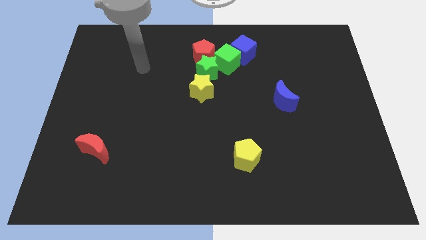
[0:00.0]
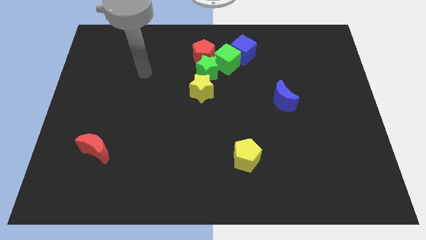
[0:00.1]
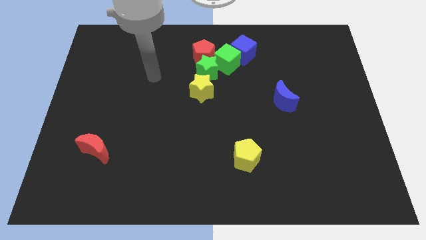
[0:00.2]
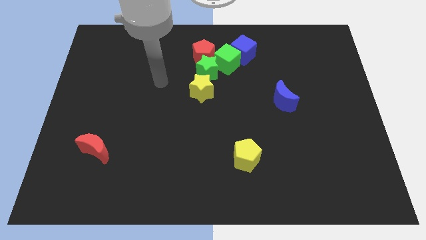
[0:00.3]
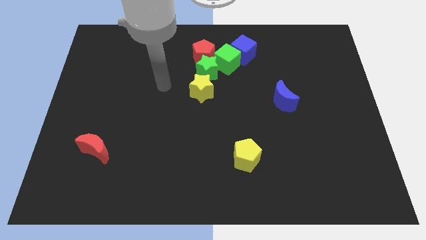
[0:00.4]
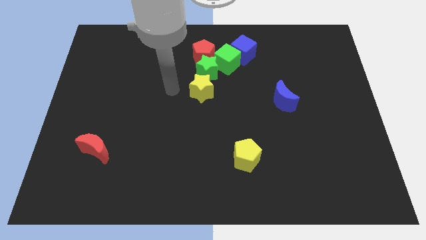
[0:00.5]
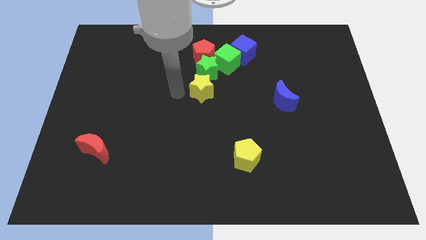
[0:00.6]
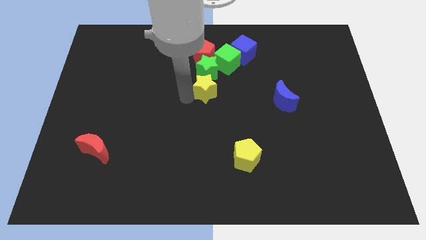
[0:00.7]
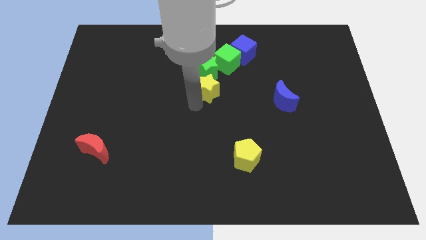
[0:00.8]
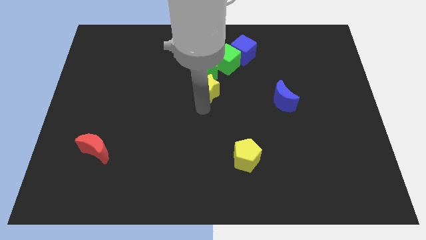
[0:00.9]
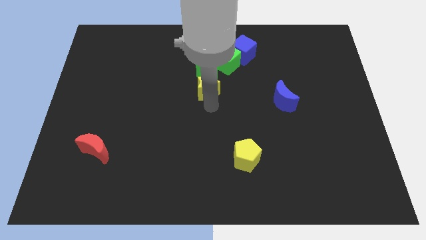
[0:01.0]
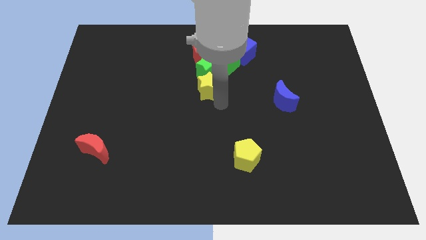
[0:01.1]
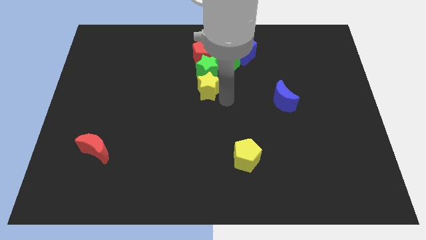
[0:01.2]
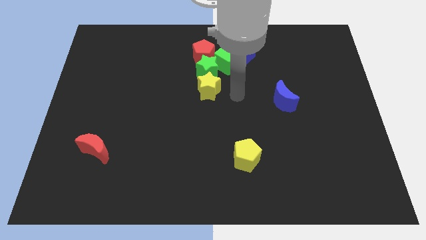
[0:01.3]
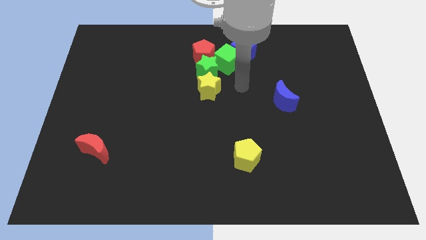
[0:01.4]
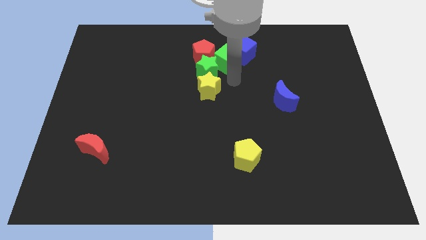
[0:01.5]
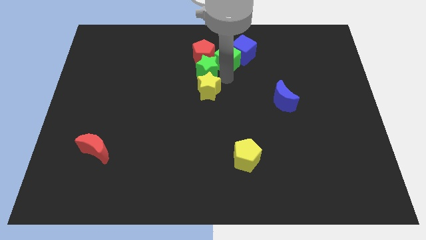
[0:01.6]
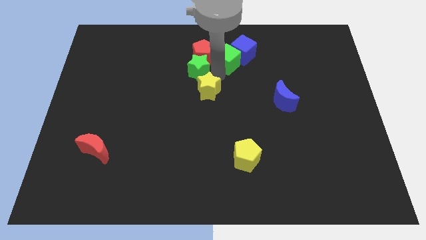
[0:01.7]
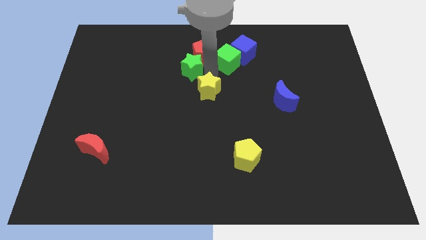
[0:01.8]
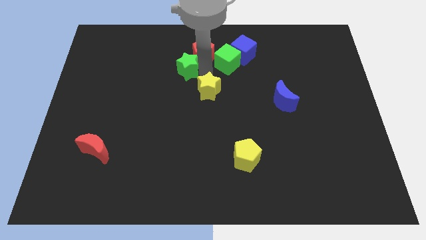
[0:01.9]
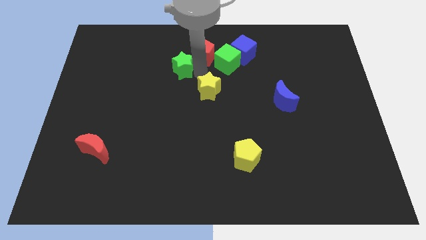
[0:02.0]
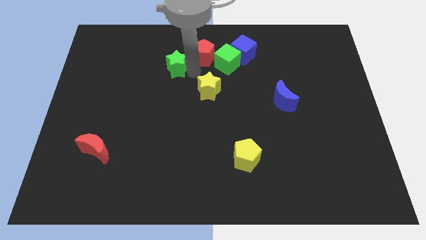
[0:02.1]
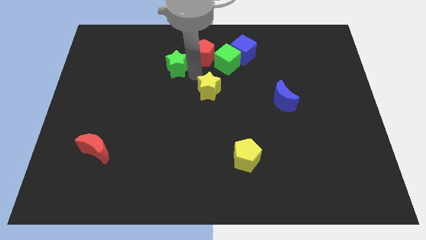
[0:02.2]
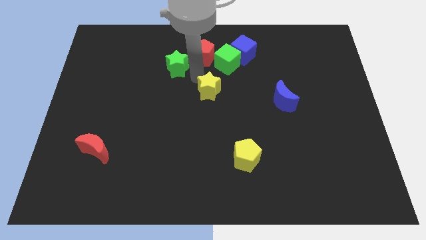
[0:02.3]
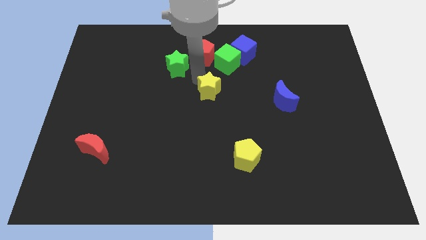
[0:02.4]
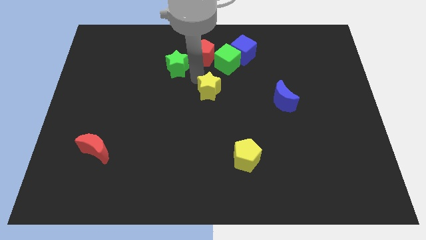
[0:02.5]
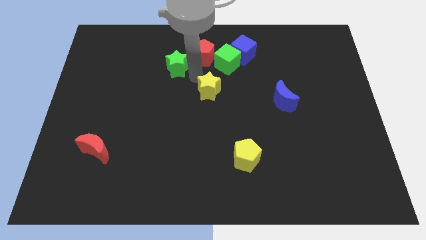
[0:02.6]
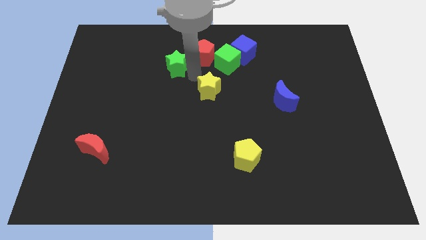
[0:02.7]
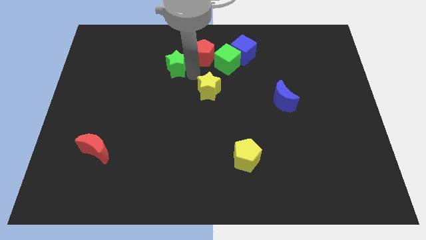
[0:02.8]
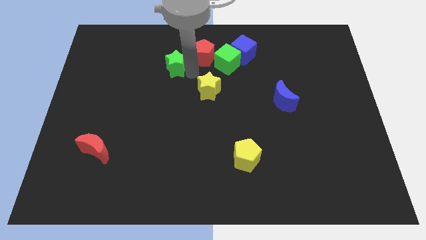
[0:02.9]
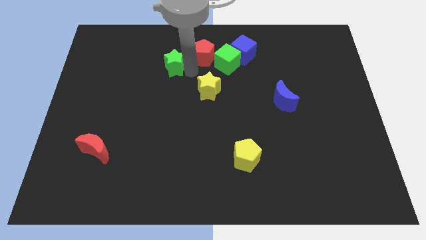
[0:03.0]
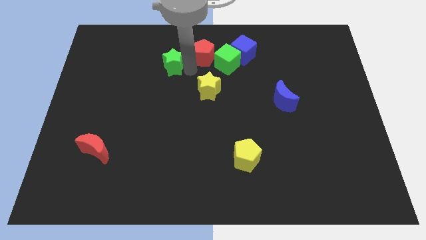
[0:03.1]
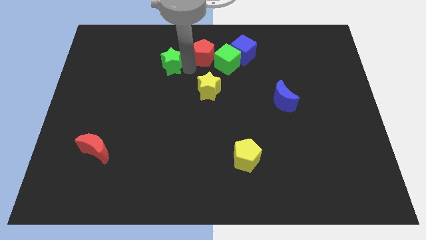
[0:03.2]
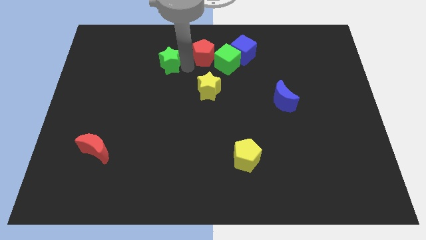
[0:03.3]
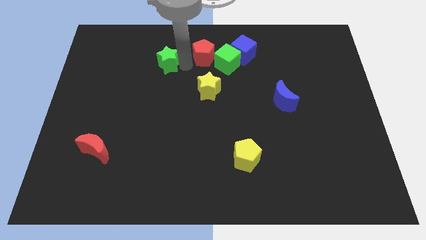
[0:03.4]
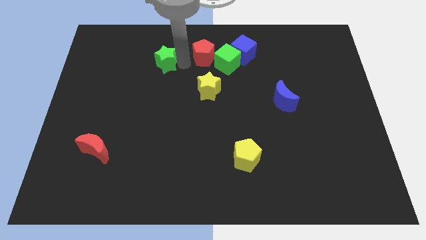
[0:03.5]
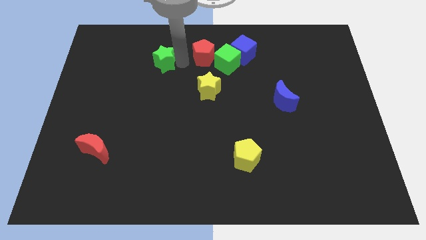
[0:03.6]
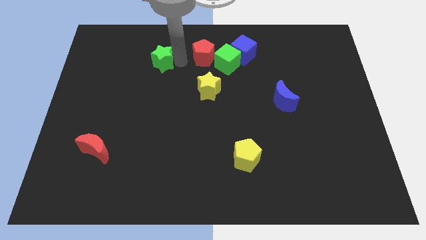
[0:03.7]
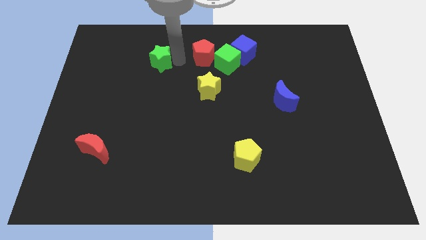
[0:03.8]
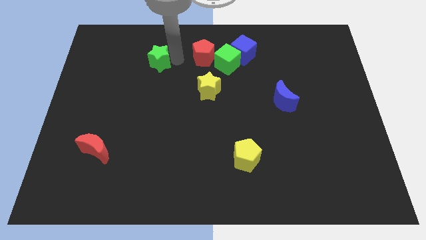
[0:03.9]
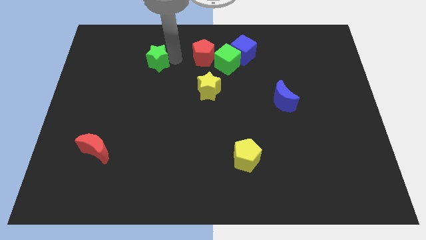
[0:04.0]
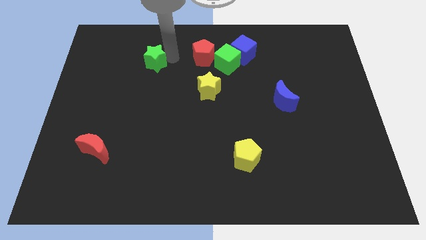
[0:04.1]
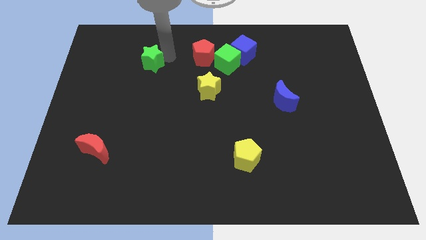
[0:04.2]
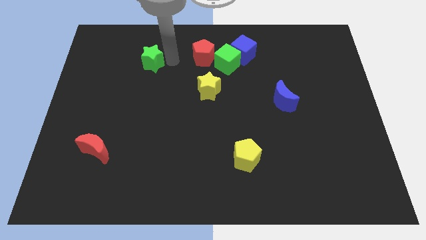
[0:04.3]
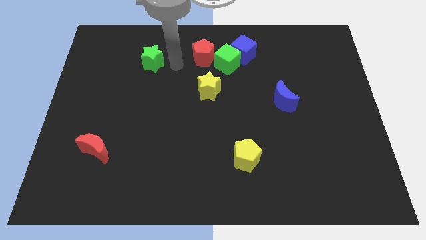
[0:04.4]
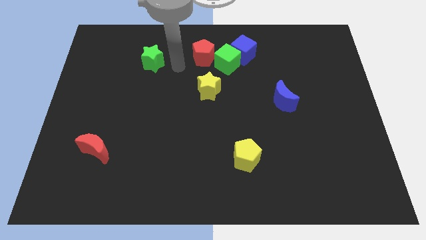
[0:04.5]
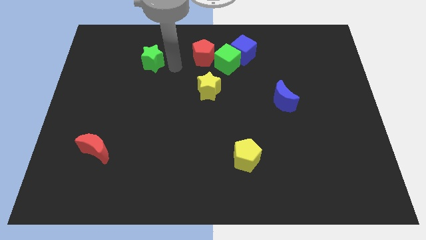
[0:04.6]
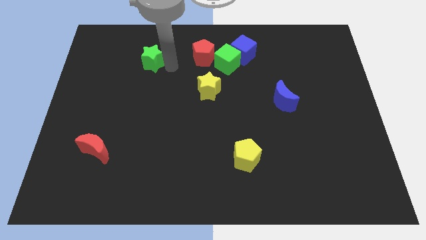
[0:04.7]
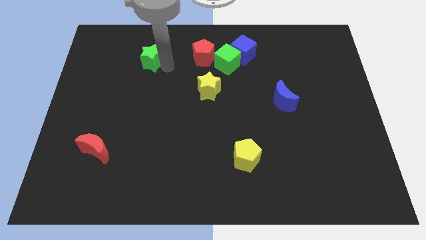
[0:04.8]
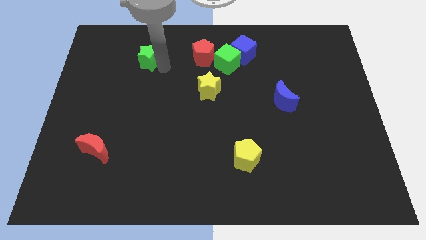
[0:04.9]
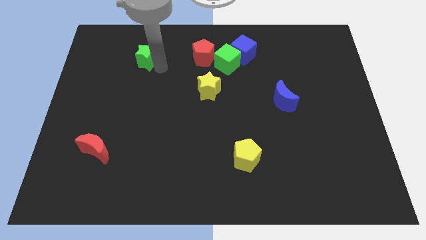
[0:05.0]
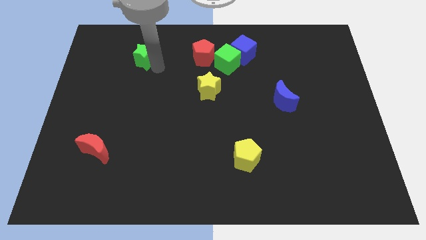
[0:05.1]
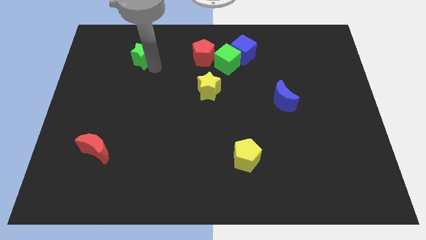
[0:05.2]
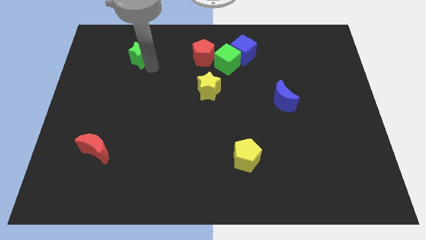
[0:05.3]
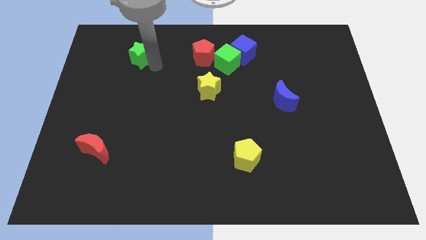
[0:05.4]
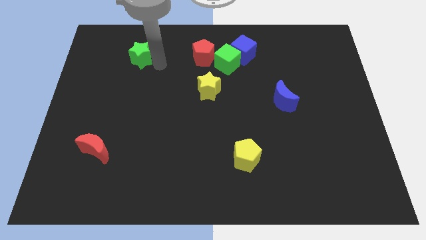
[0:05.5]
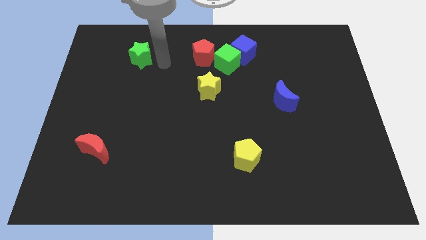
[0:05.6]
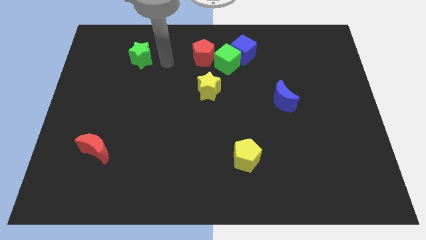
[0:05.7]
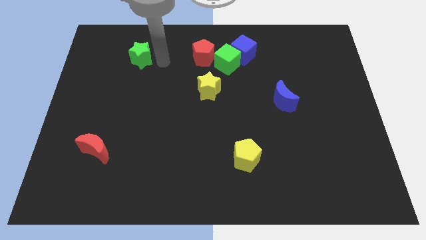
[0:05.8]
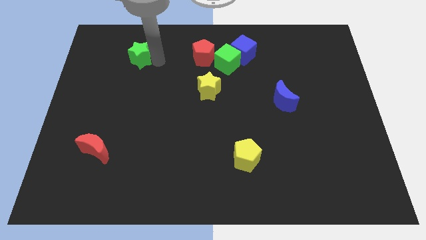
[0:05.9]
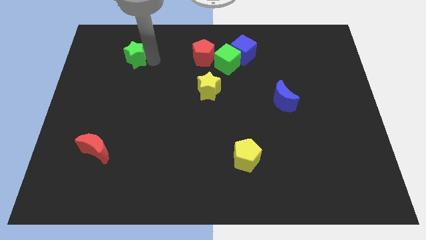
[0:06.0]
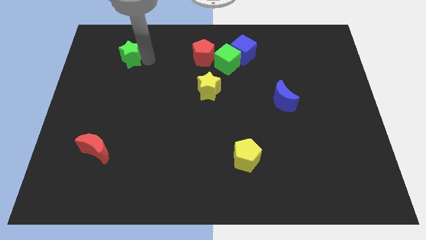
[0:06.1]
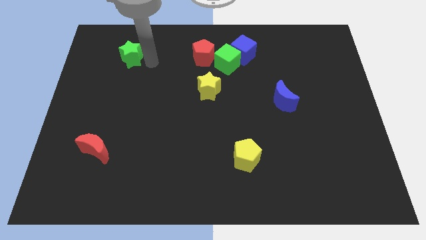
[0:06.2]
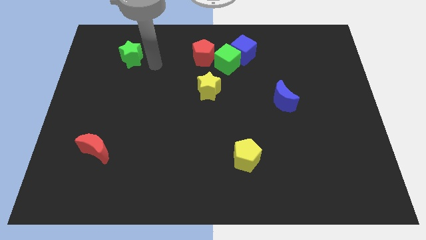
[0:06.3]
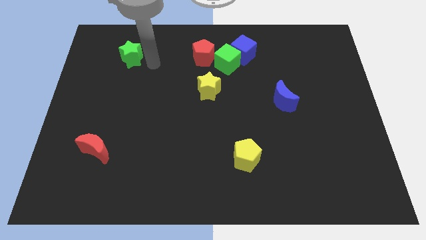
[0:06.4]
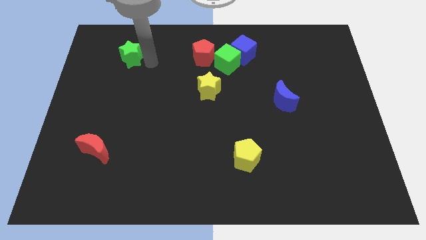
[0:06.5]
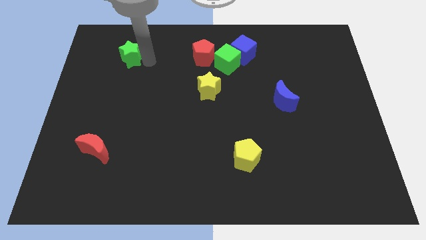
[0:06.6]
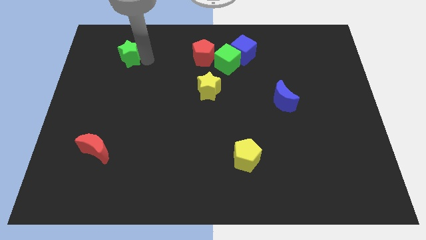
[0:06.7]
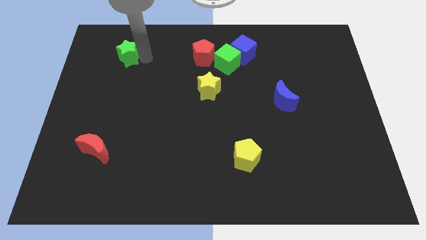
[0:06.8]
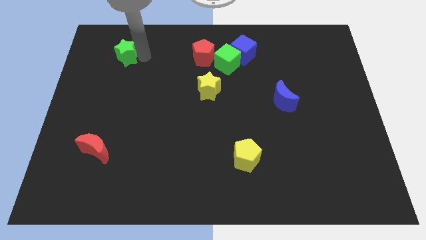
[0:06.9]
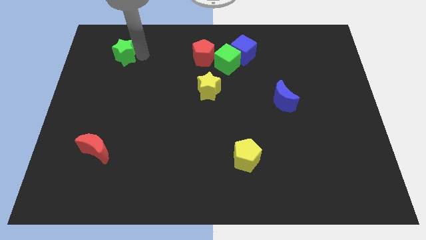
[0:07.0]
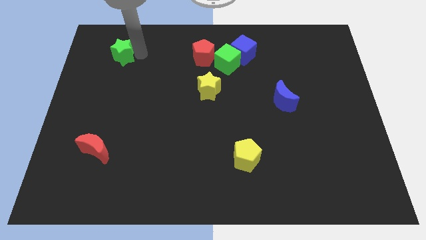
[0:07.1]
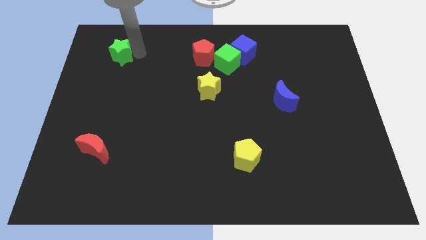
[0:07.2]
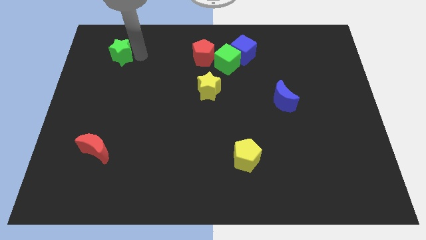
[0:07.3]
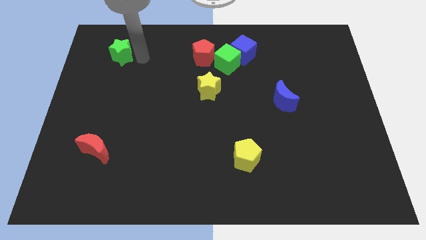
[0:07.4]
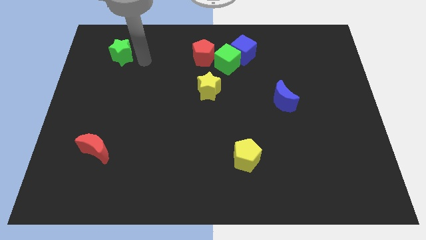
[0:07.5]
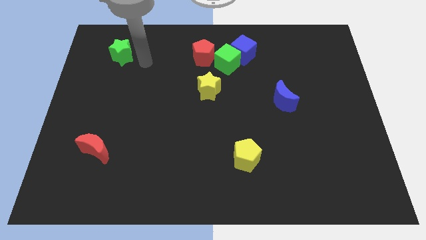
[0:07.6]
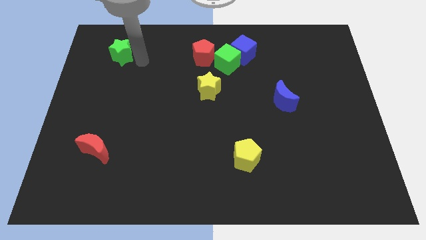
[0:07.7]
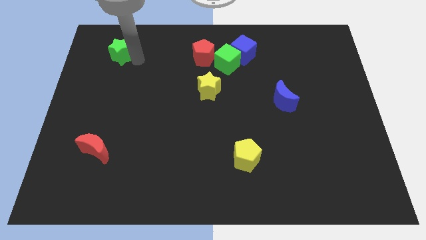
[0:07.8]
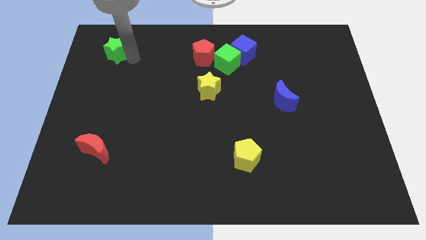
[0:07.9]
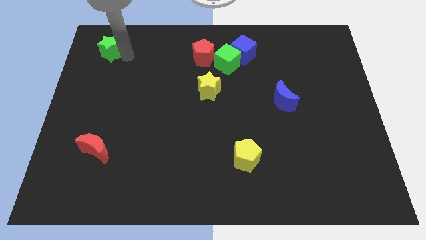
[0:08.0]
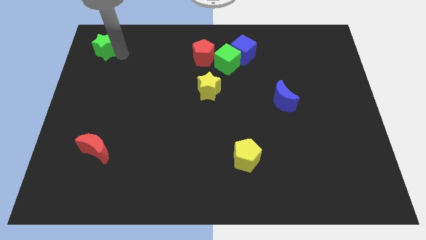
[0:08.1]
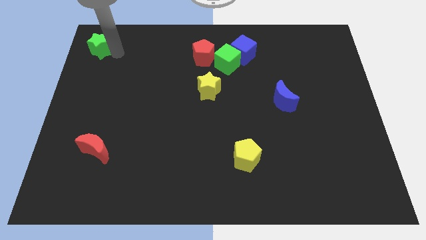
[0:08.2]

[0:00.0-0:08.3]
move the green star to the upper left corner
